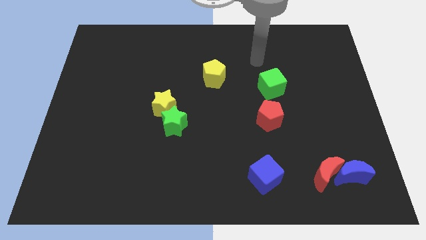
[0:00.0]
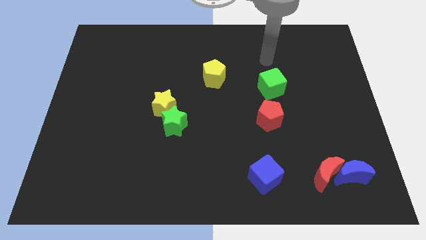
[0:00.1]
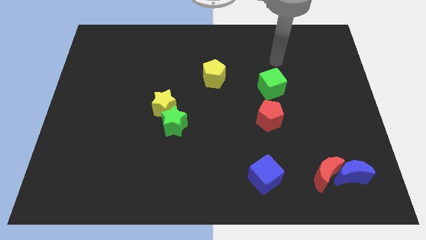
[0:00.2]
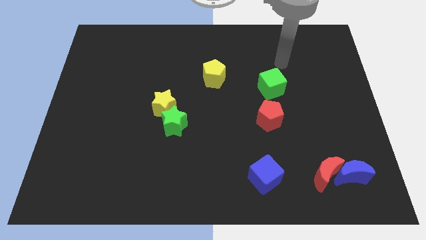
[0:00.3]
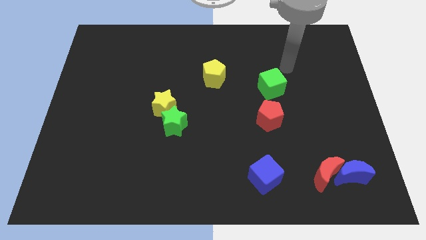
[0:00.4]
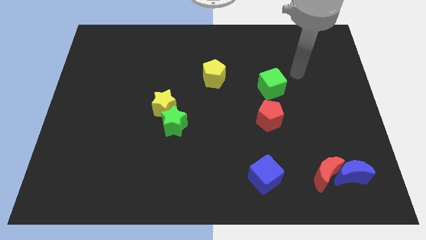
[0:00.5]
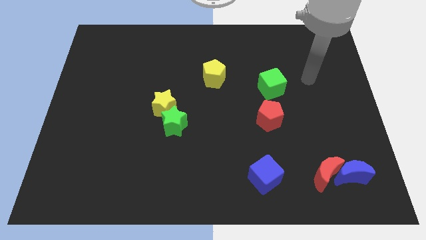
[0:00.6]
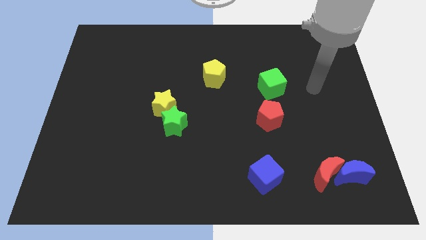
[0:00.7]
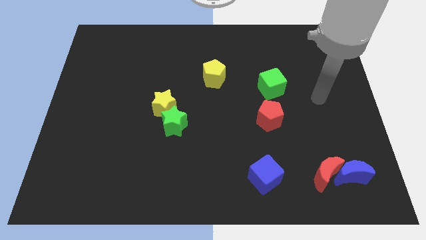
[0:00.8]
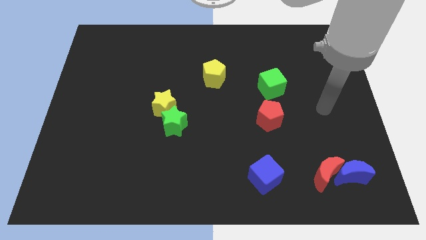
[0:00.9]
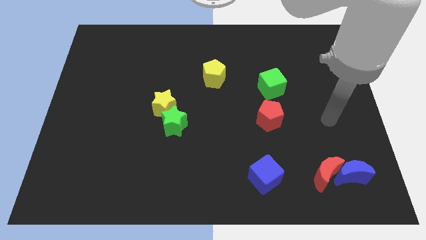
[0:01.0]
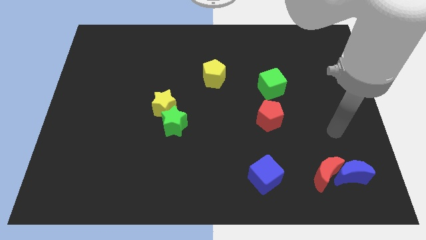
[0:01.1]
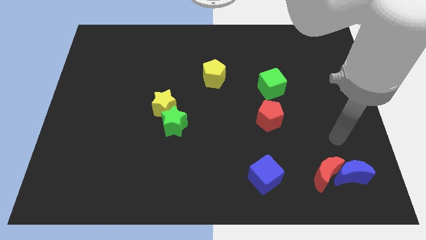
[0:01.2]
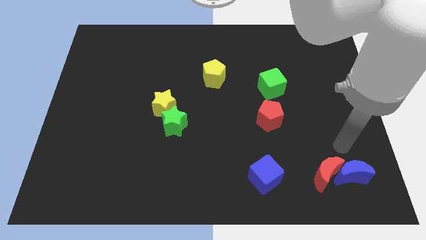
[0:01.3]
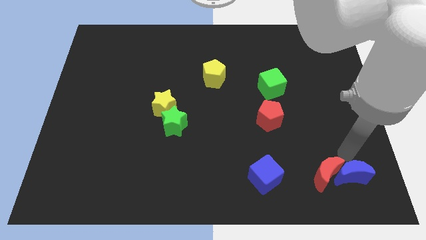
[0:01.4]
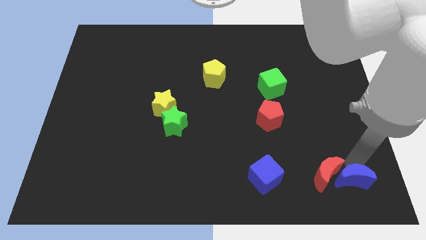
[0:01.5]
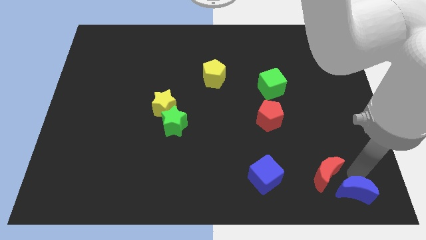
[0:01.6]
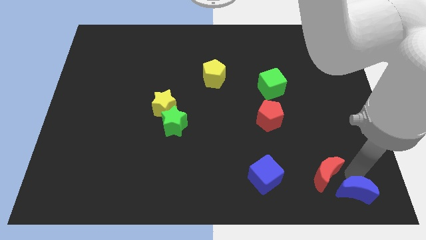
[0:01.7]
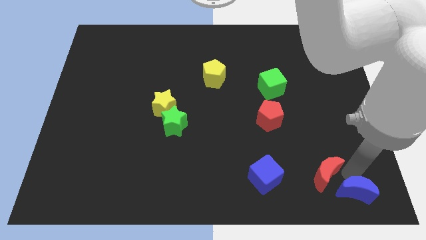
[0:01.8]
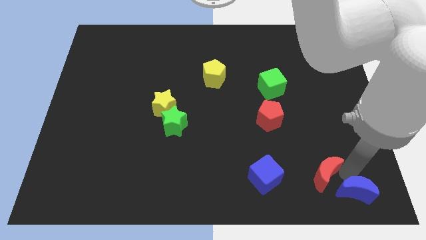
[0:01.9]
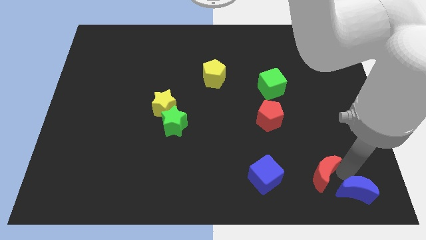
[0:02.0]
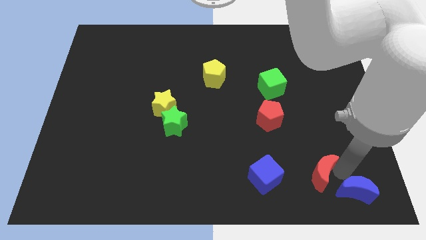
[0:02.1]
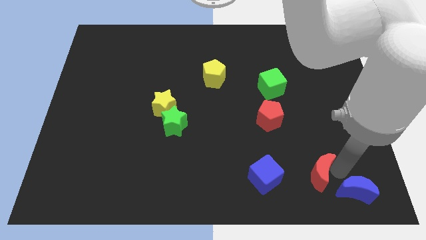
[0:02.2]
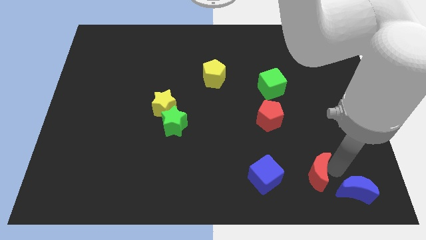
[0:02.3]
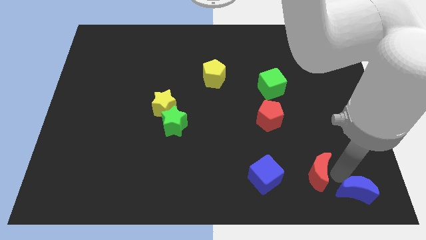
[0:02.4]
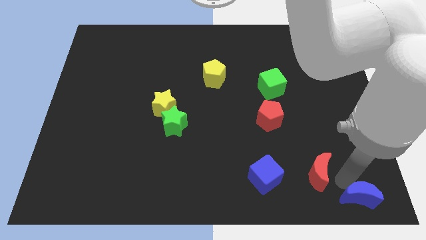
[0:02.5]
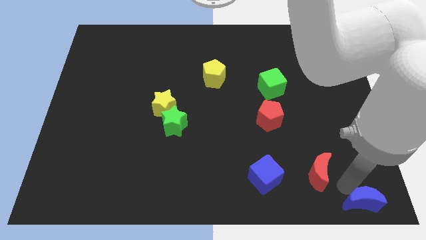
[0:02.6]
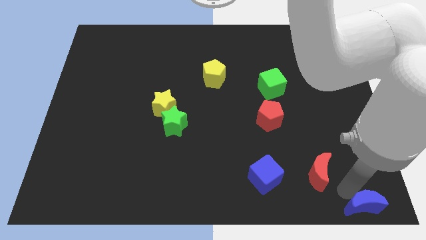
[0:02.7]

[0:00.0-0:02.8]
move the red moon away from the blue moon

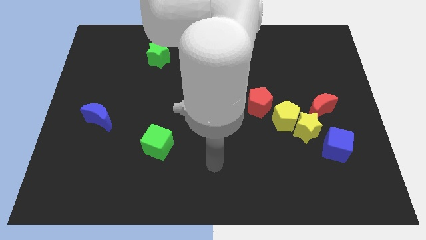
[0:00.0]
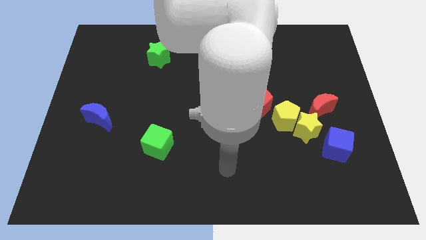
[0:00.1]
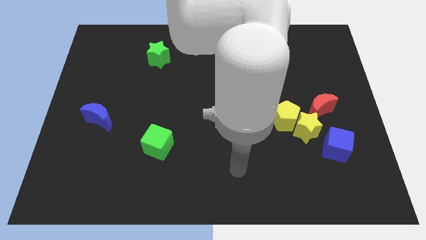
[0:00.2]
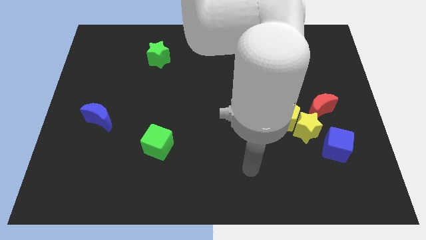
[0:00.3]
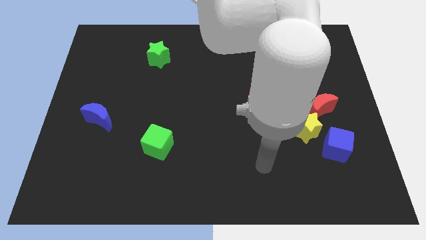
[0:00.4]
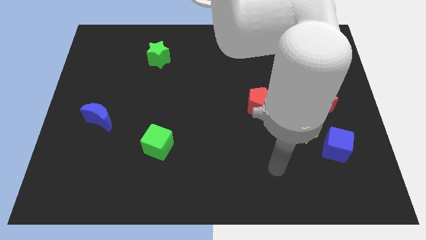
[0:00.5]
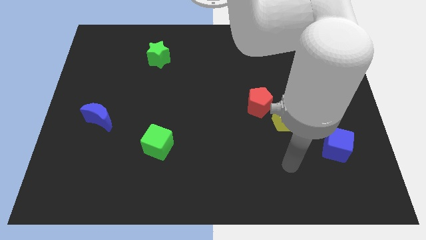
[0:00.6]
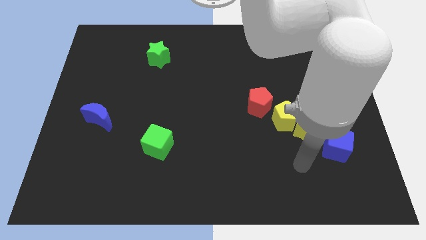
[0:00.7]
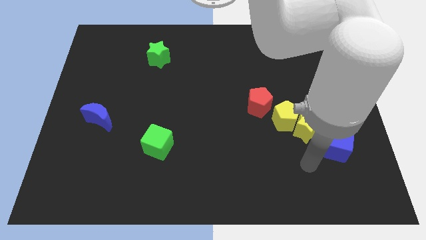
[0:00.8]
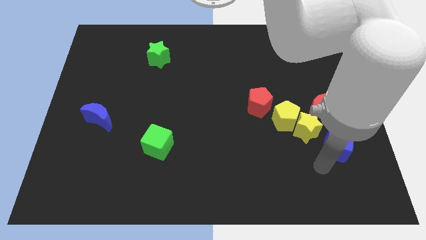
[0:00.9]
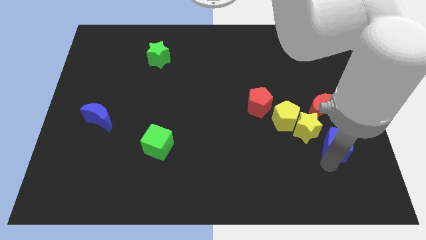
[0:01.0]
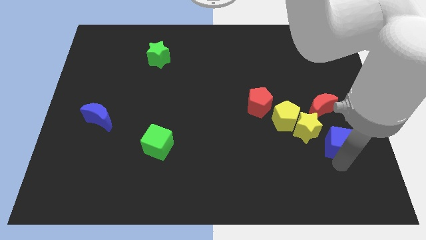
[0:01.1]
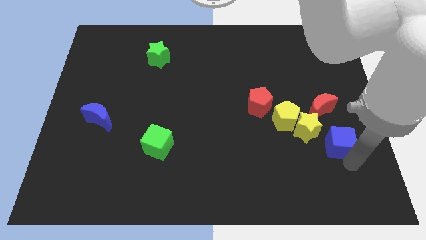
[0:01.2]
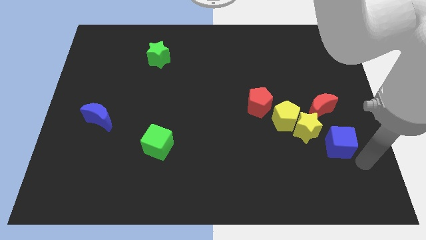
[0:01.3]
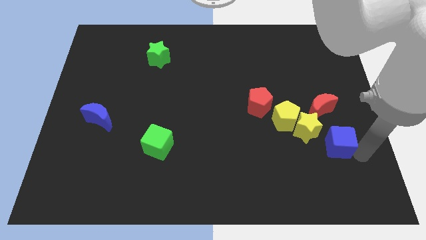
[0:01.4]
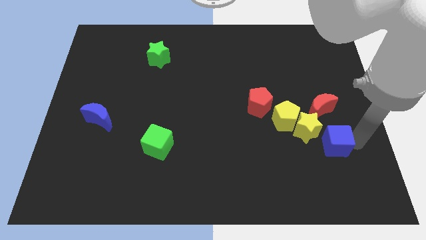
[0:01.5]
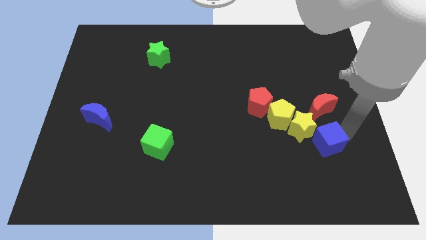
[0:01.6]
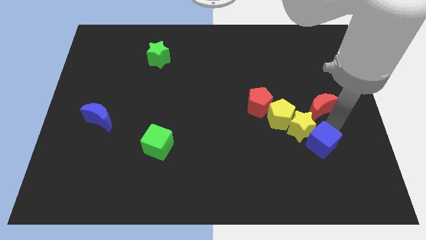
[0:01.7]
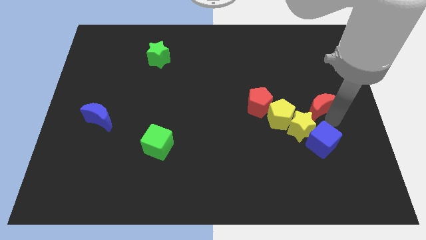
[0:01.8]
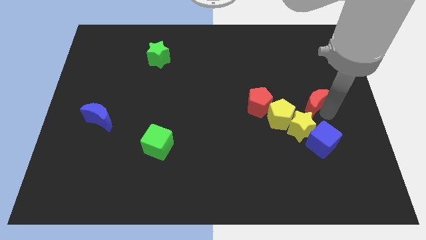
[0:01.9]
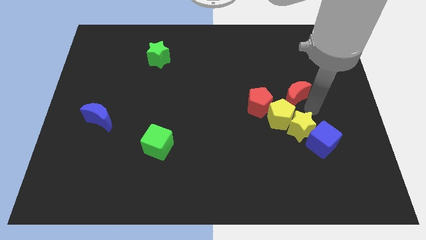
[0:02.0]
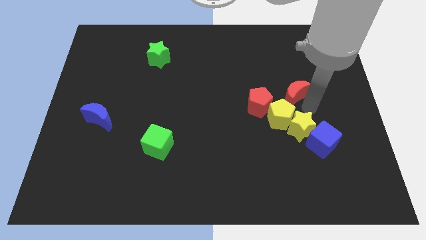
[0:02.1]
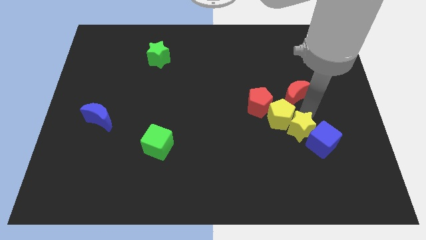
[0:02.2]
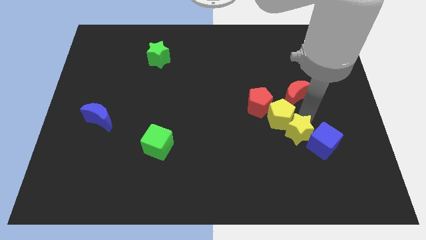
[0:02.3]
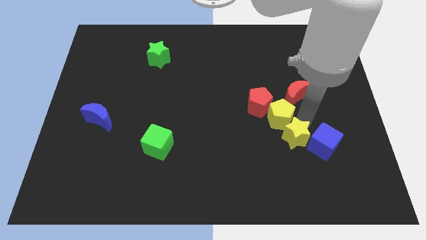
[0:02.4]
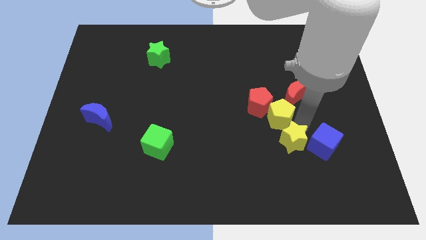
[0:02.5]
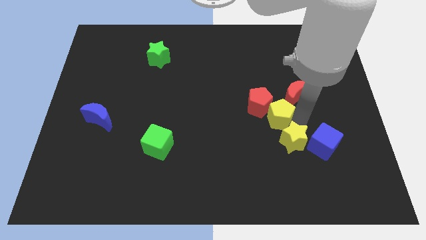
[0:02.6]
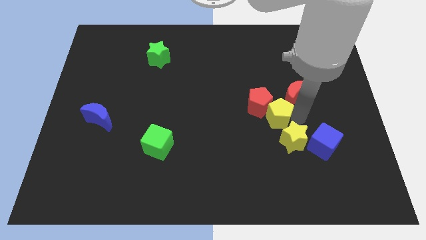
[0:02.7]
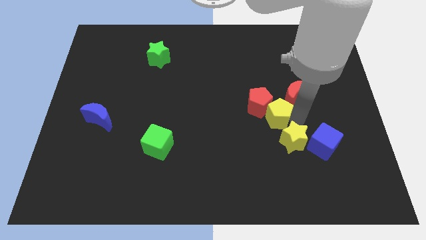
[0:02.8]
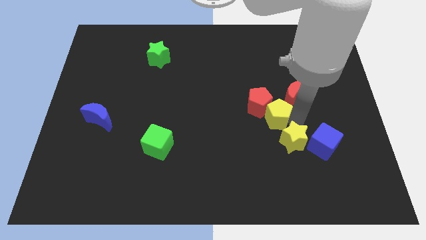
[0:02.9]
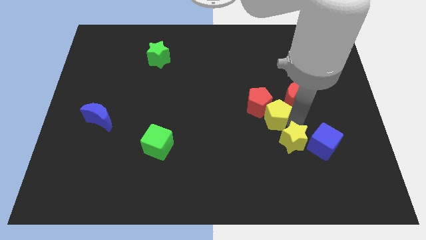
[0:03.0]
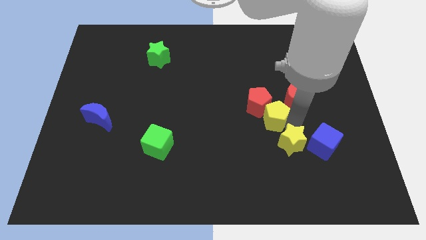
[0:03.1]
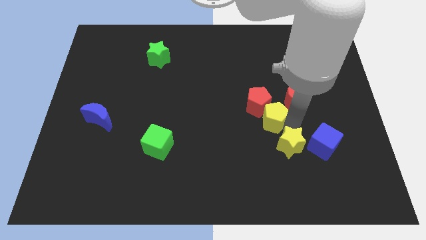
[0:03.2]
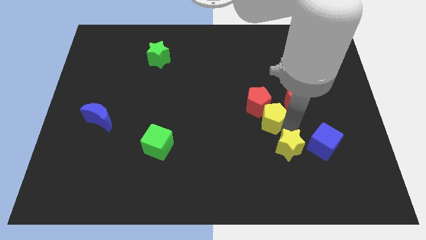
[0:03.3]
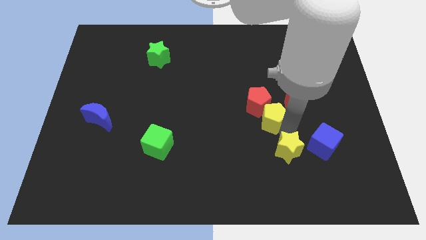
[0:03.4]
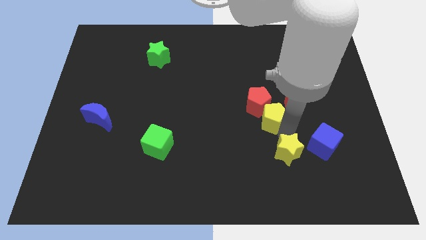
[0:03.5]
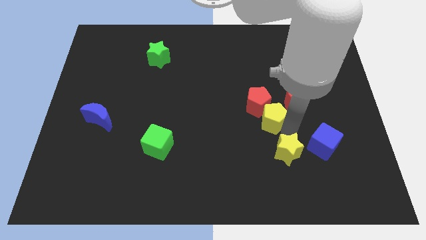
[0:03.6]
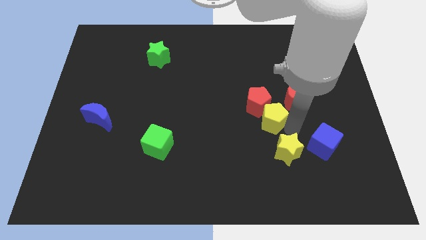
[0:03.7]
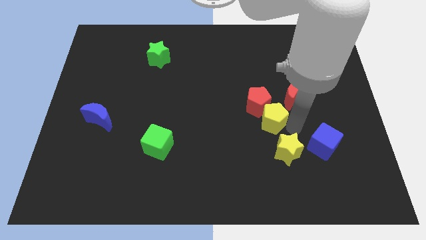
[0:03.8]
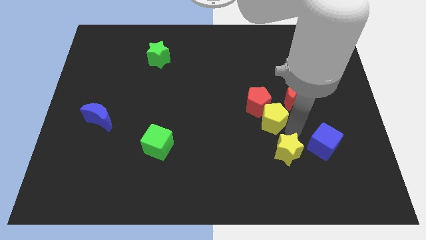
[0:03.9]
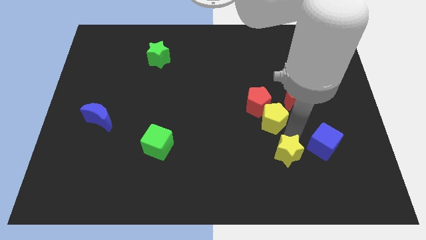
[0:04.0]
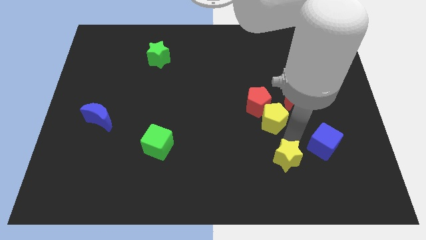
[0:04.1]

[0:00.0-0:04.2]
separate the yellow star from the yellow pentagon, red moon, and blue cube

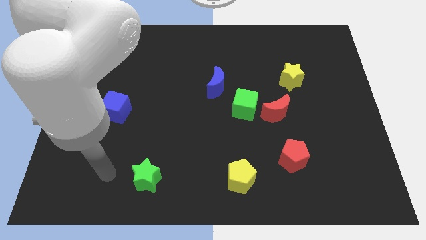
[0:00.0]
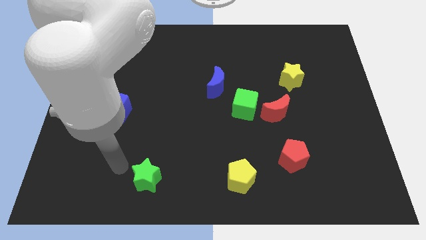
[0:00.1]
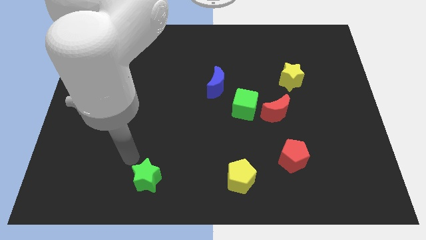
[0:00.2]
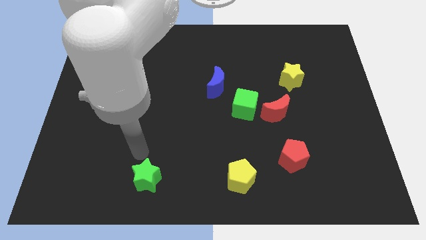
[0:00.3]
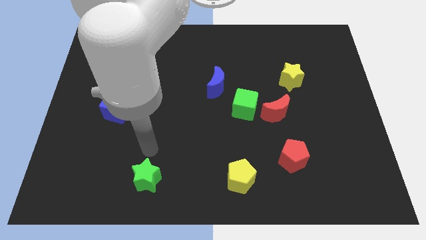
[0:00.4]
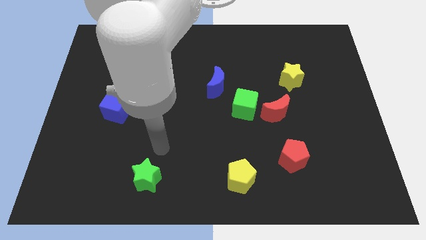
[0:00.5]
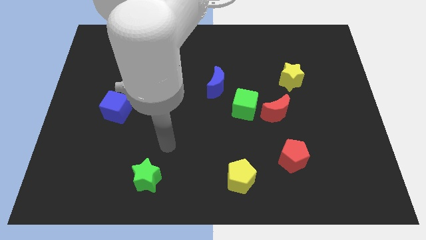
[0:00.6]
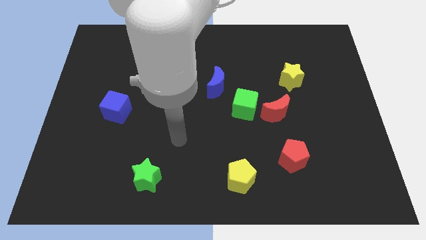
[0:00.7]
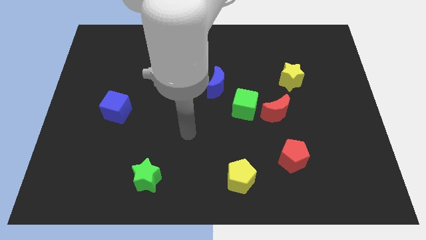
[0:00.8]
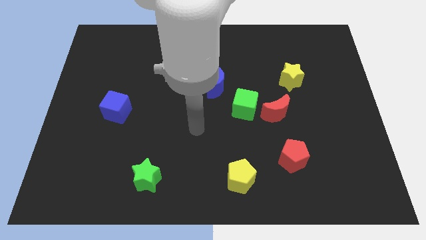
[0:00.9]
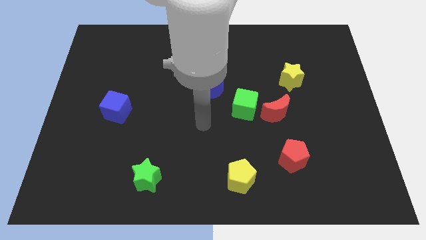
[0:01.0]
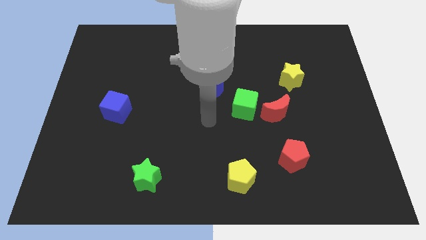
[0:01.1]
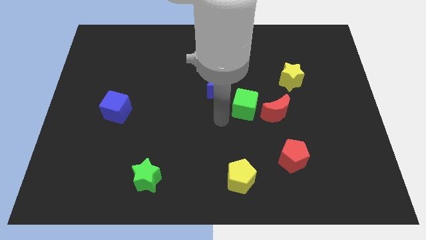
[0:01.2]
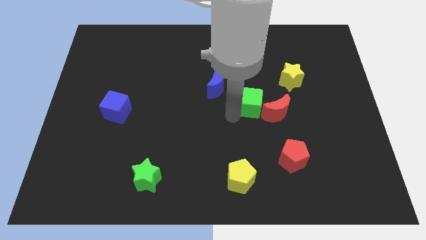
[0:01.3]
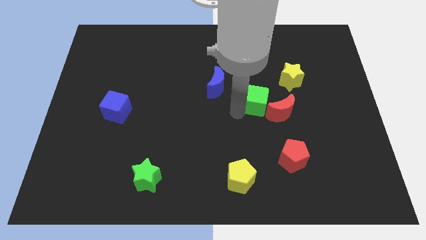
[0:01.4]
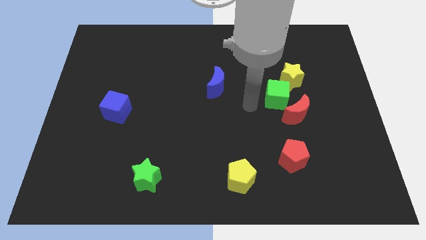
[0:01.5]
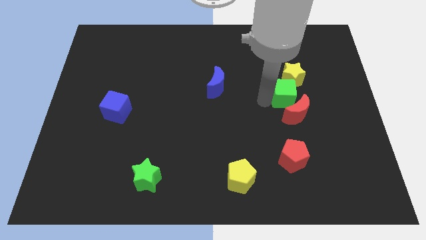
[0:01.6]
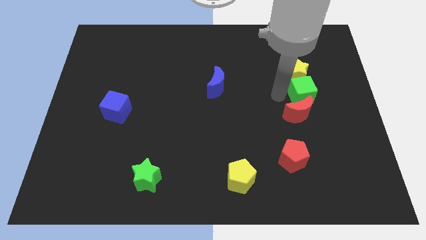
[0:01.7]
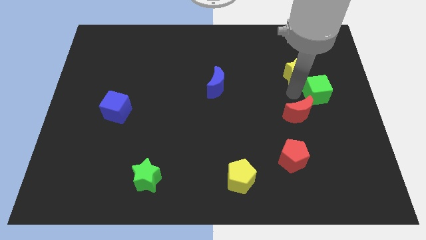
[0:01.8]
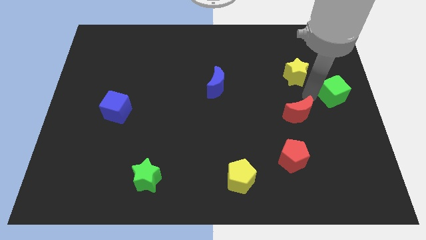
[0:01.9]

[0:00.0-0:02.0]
separate the red moon from the green cube

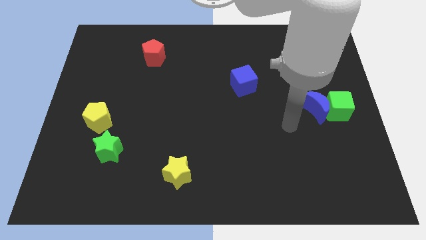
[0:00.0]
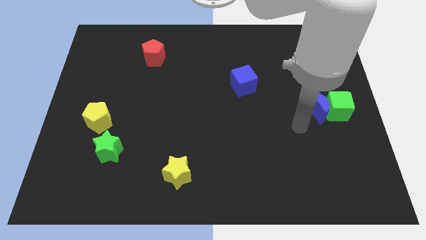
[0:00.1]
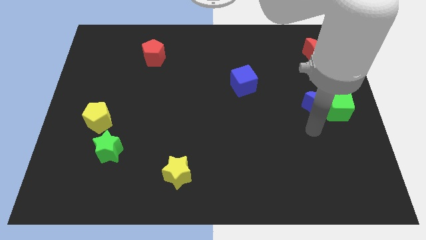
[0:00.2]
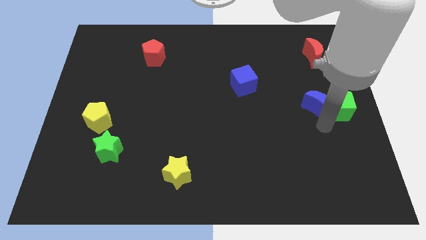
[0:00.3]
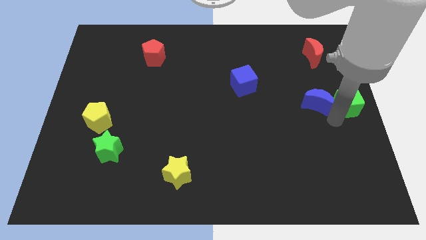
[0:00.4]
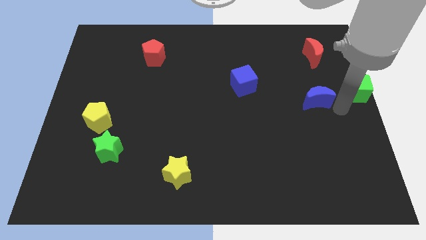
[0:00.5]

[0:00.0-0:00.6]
pull the blue moon apart from the green cube
